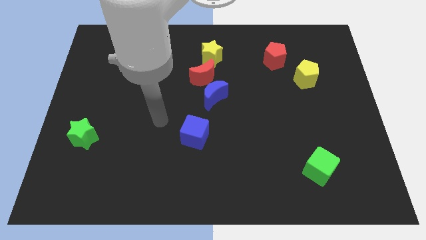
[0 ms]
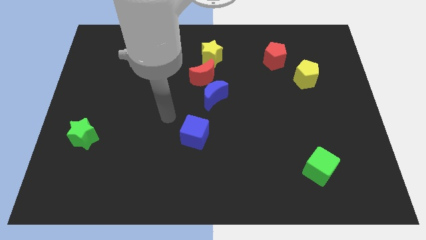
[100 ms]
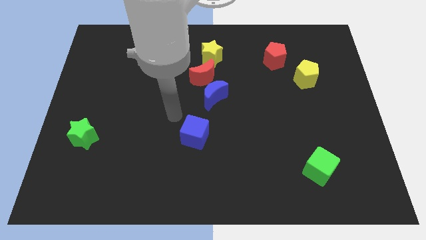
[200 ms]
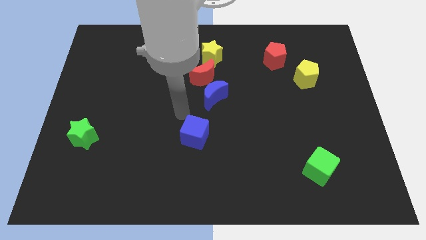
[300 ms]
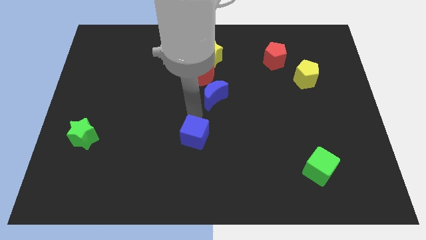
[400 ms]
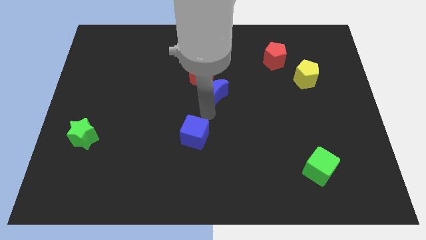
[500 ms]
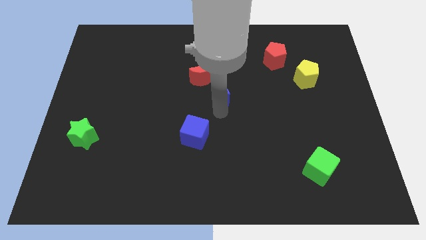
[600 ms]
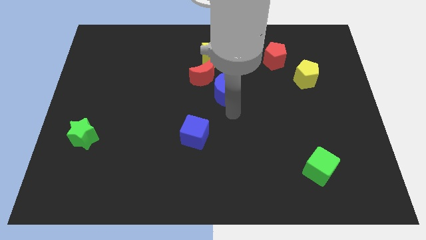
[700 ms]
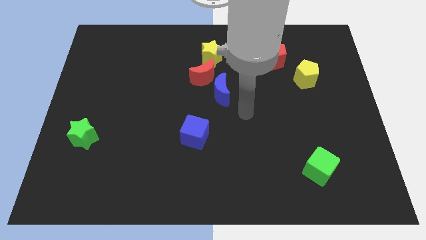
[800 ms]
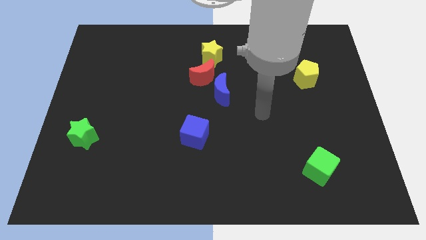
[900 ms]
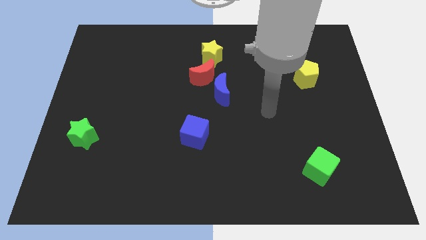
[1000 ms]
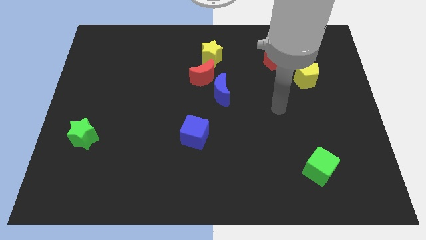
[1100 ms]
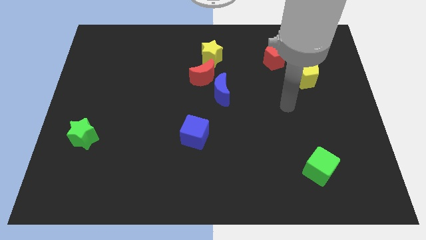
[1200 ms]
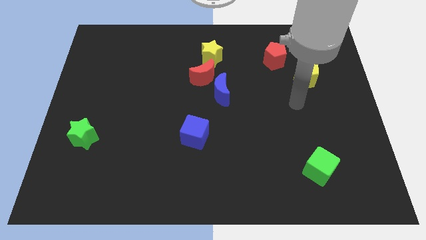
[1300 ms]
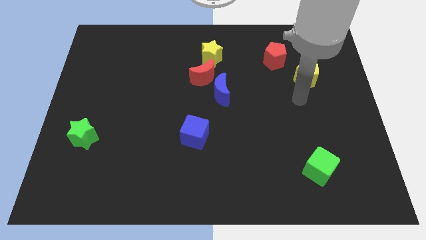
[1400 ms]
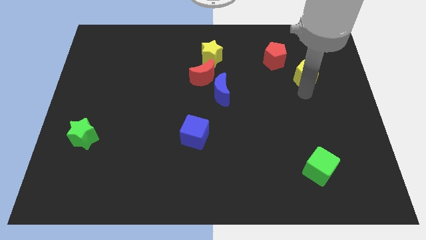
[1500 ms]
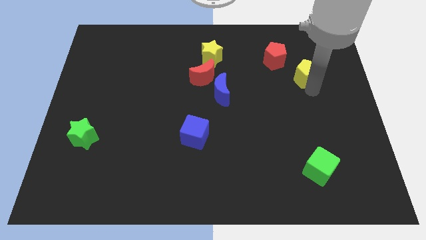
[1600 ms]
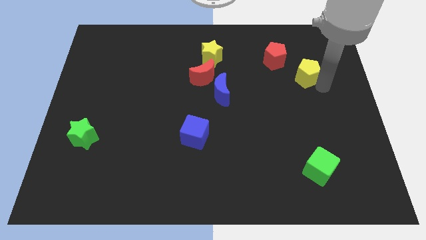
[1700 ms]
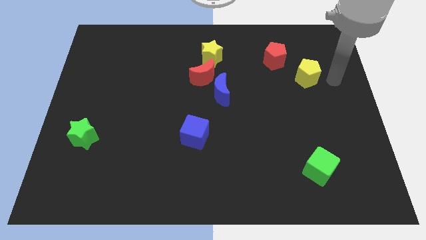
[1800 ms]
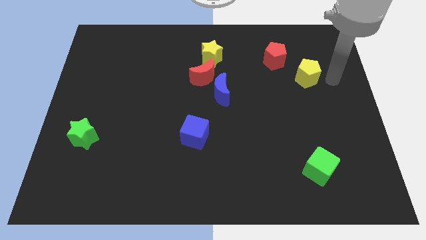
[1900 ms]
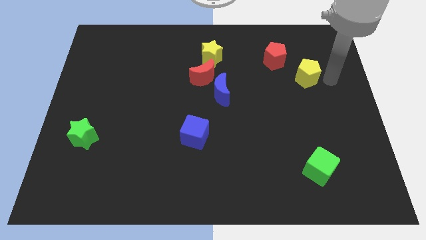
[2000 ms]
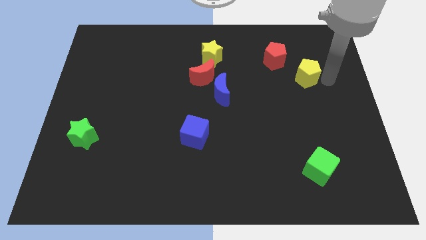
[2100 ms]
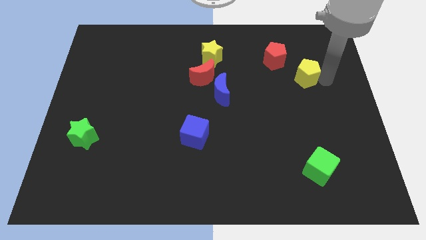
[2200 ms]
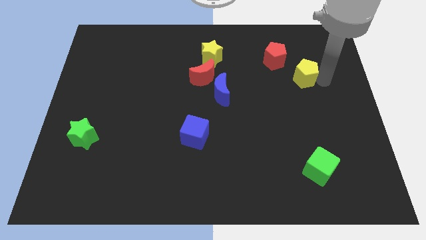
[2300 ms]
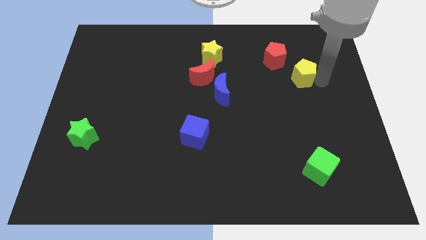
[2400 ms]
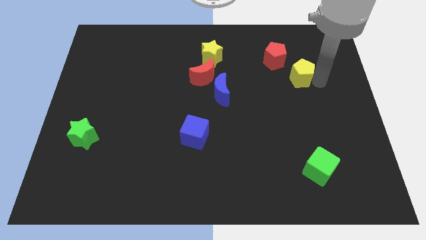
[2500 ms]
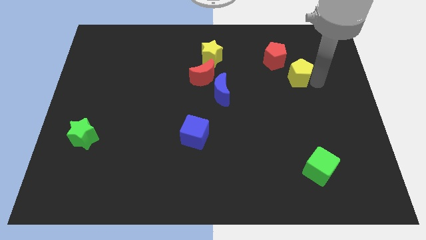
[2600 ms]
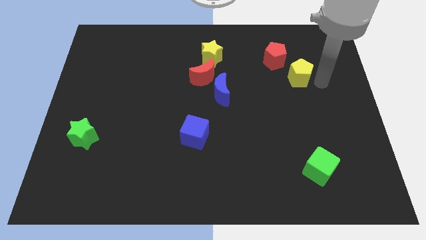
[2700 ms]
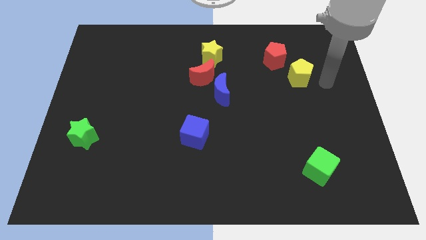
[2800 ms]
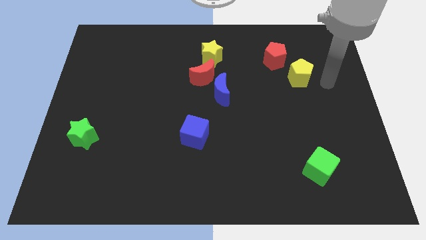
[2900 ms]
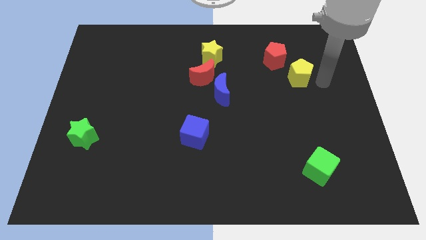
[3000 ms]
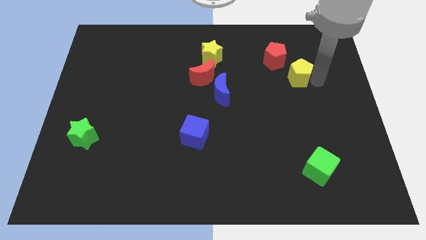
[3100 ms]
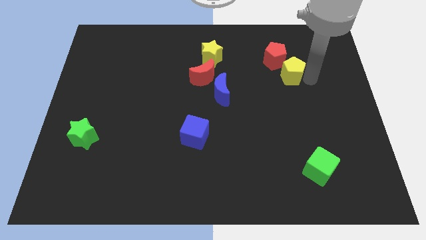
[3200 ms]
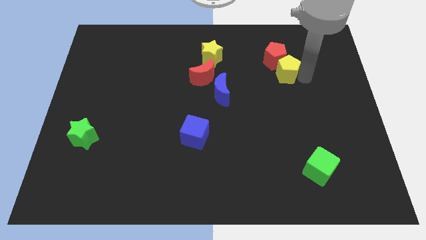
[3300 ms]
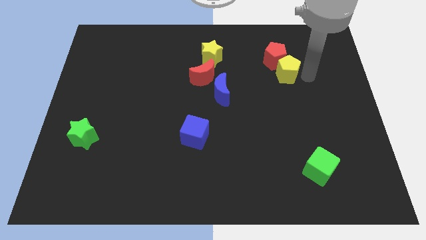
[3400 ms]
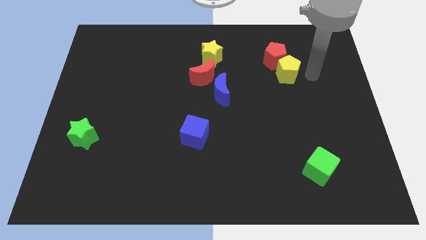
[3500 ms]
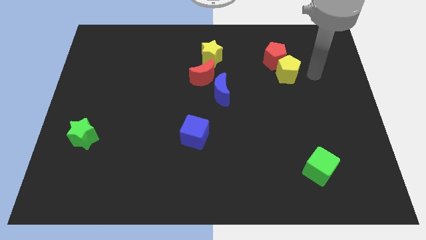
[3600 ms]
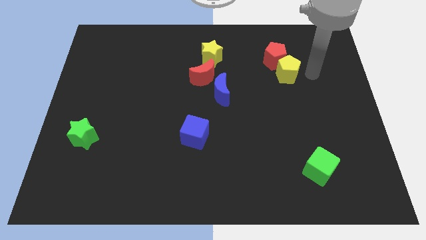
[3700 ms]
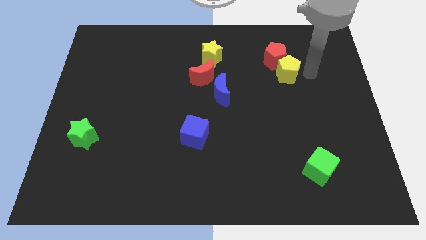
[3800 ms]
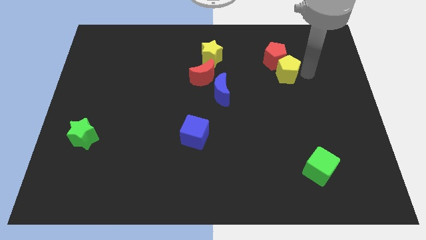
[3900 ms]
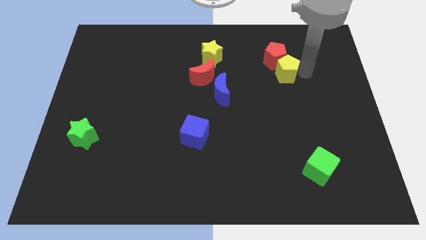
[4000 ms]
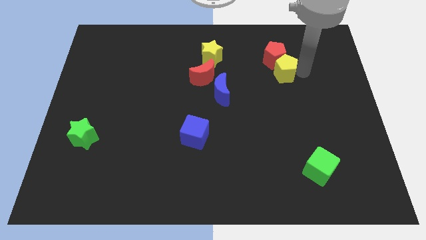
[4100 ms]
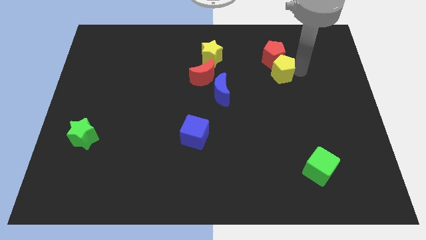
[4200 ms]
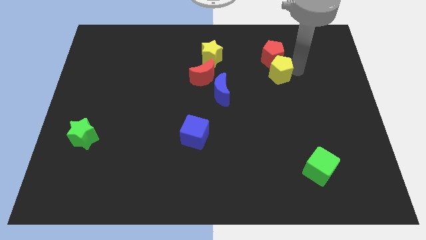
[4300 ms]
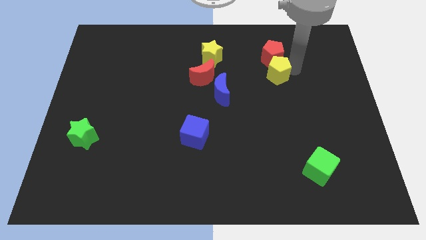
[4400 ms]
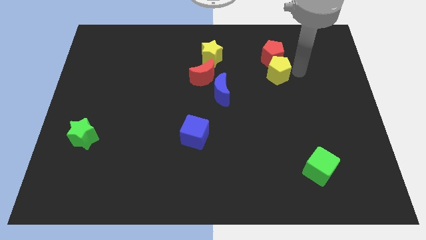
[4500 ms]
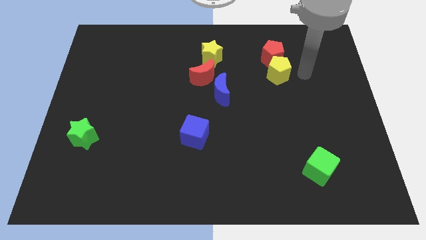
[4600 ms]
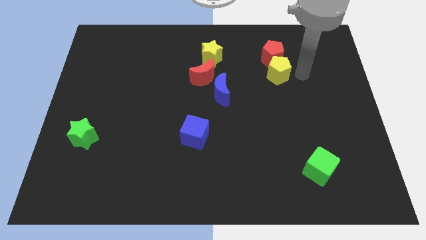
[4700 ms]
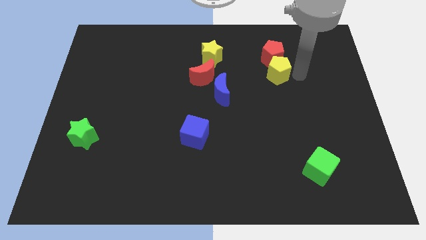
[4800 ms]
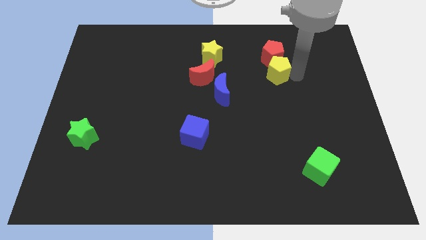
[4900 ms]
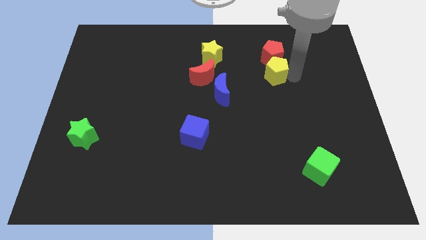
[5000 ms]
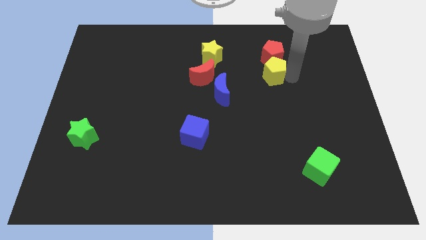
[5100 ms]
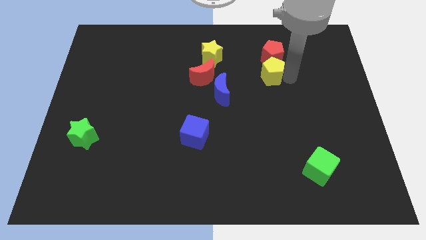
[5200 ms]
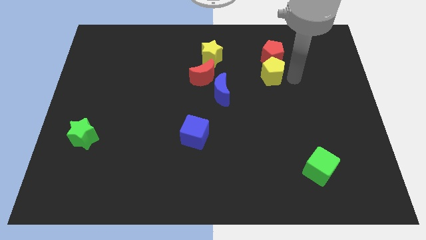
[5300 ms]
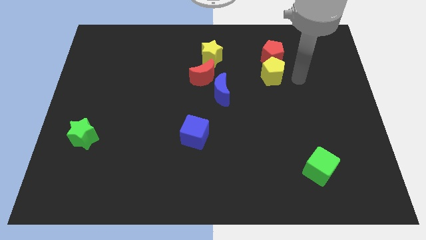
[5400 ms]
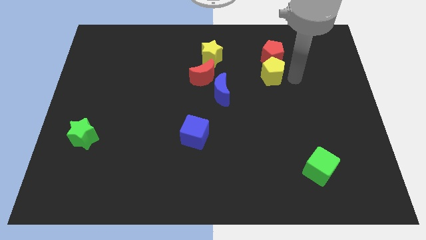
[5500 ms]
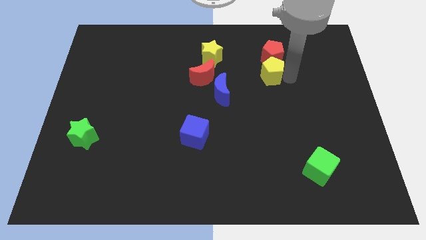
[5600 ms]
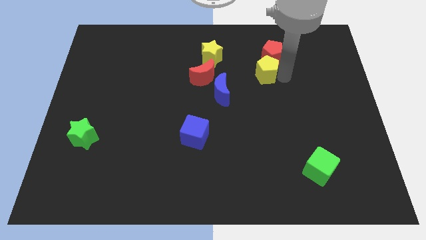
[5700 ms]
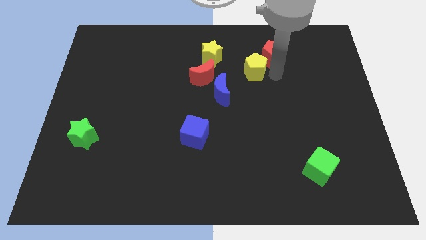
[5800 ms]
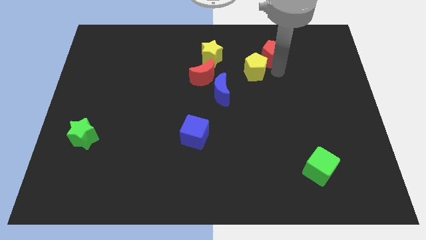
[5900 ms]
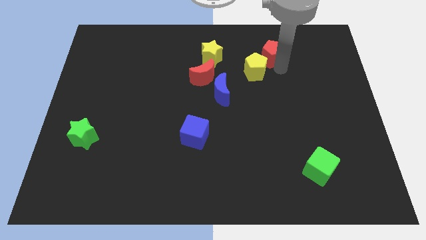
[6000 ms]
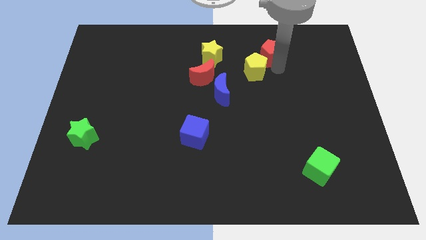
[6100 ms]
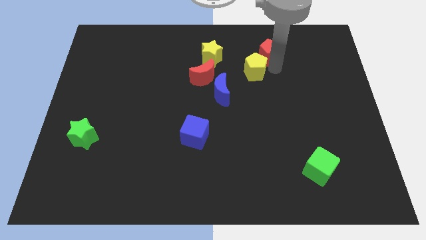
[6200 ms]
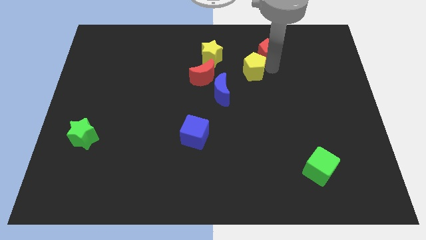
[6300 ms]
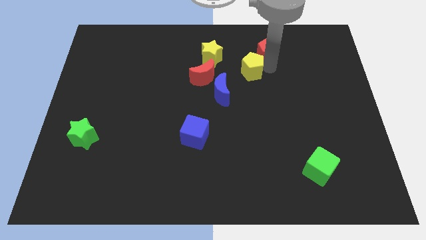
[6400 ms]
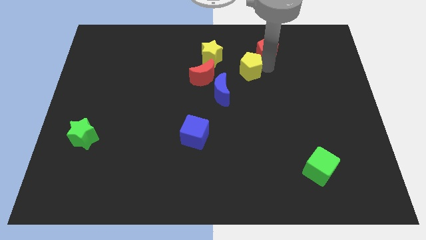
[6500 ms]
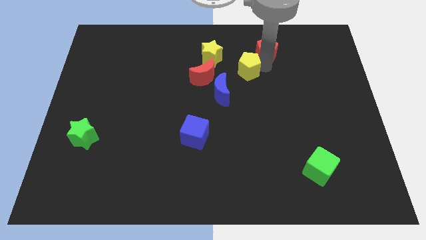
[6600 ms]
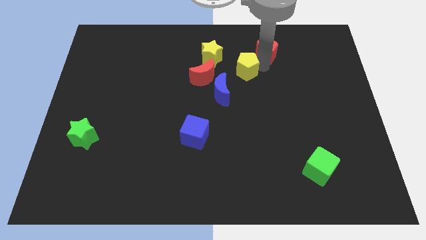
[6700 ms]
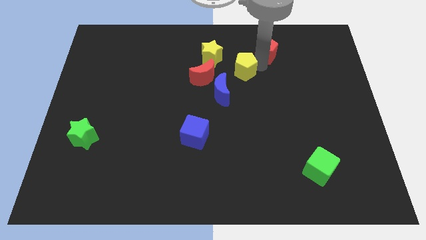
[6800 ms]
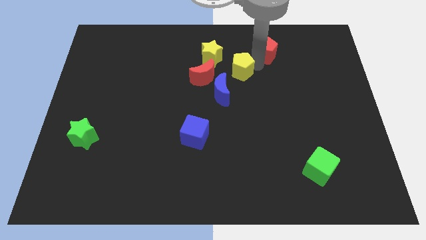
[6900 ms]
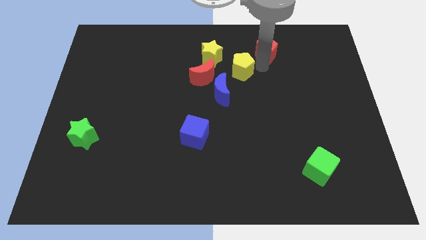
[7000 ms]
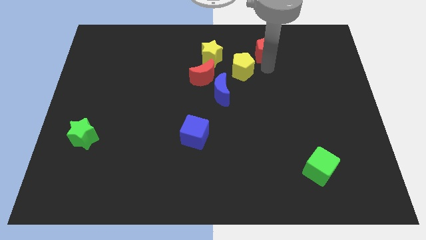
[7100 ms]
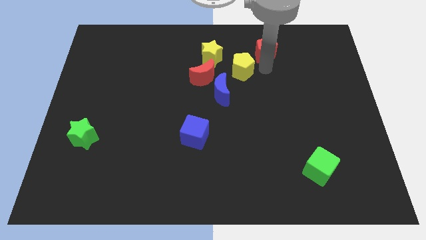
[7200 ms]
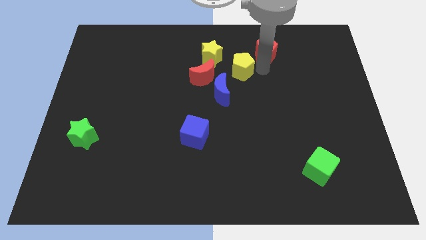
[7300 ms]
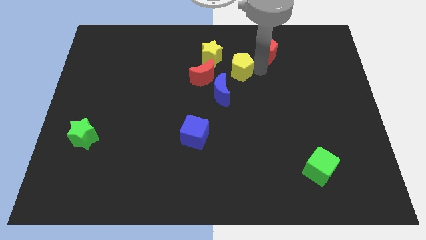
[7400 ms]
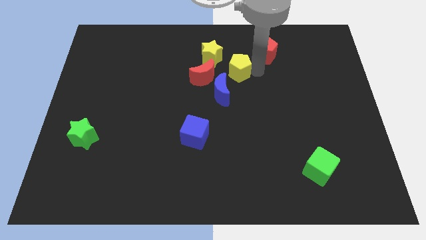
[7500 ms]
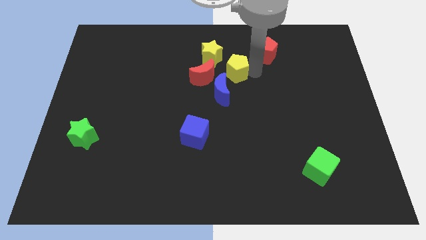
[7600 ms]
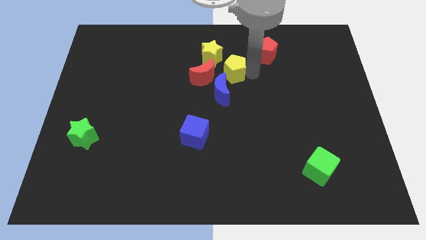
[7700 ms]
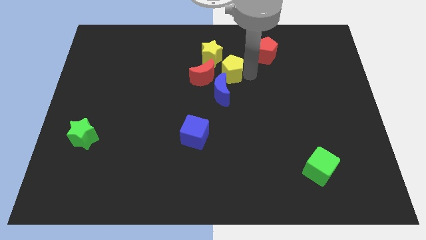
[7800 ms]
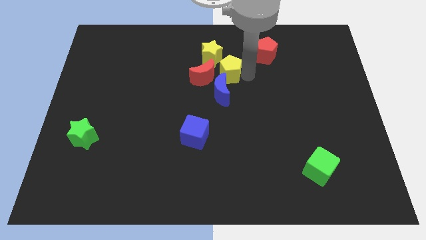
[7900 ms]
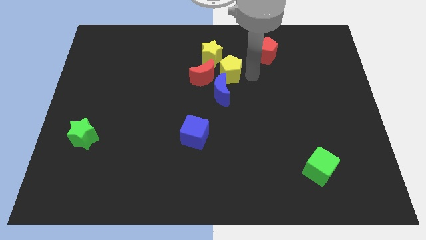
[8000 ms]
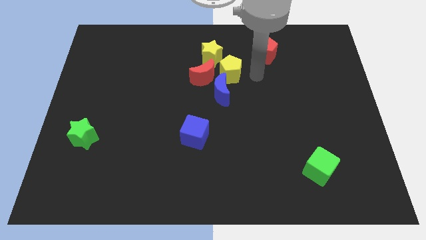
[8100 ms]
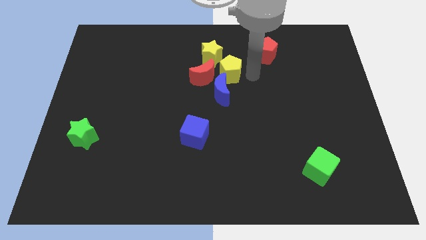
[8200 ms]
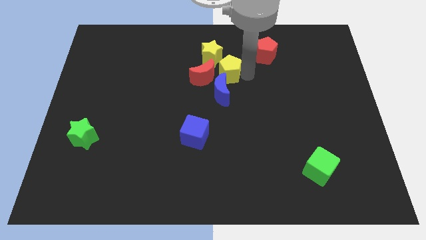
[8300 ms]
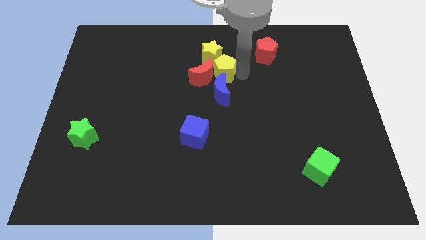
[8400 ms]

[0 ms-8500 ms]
push the yellow pentagon next to the red moon
